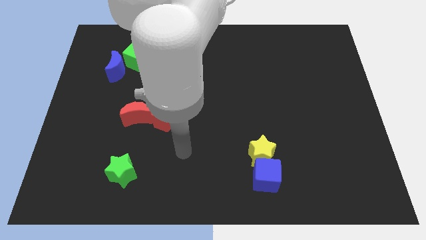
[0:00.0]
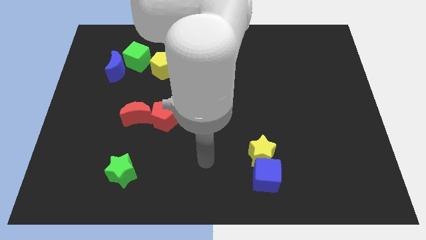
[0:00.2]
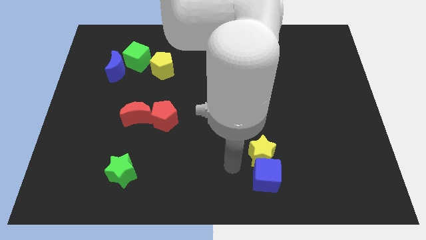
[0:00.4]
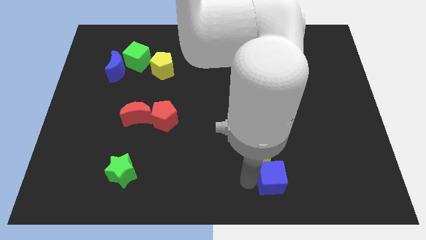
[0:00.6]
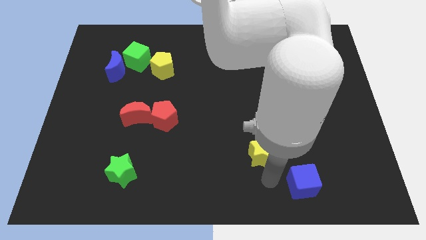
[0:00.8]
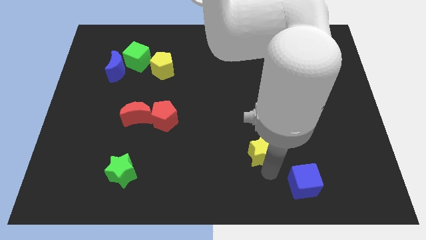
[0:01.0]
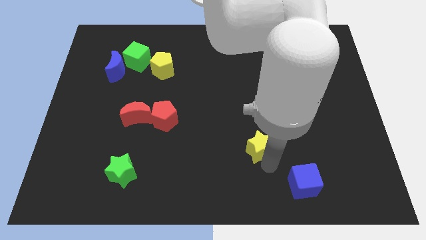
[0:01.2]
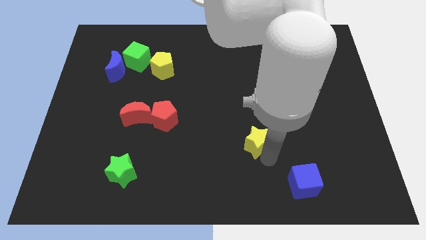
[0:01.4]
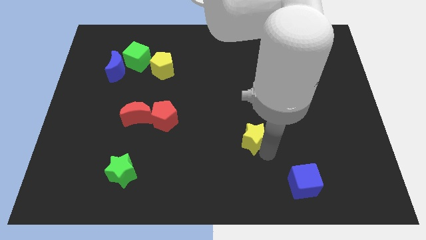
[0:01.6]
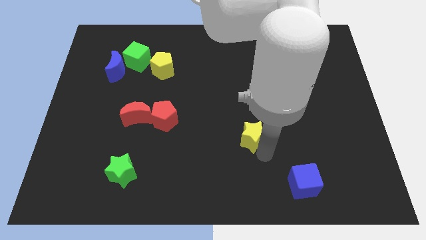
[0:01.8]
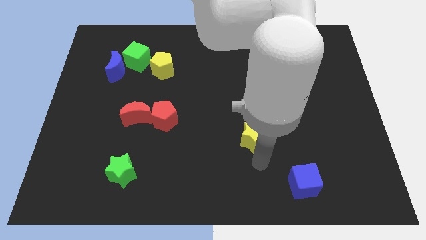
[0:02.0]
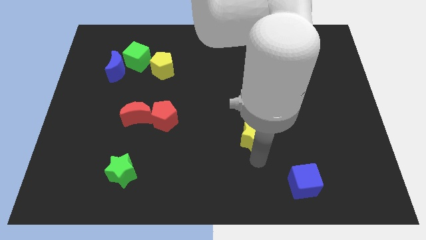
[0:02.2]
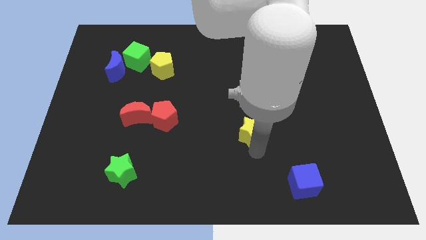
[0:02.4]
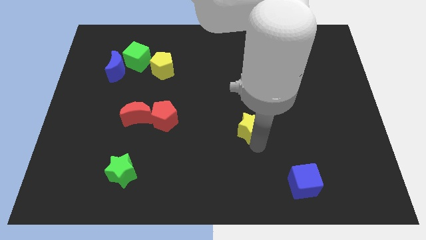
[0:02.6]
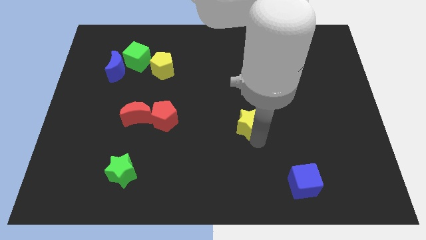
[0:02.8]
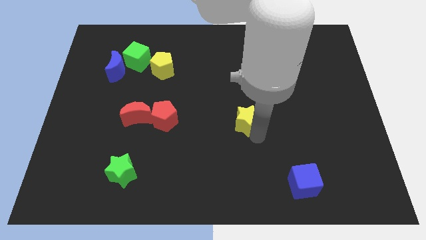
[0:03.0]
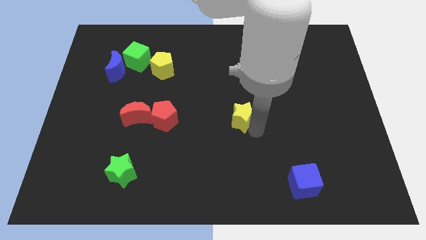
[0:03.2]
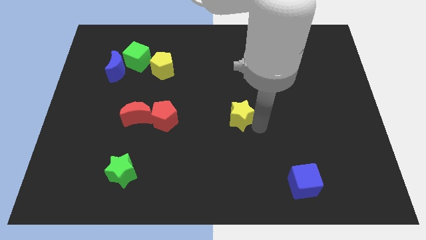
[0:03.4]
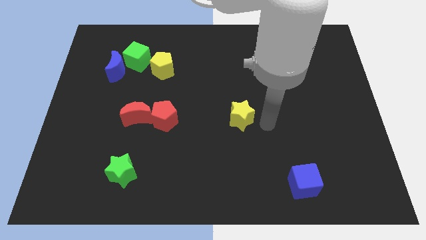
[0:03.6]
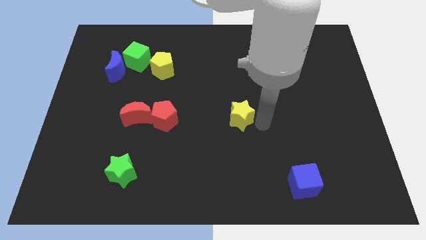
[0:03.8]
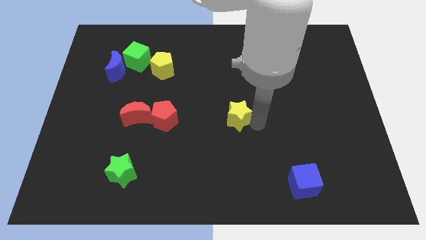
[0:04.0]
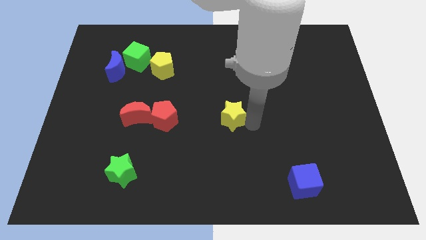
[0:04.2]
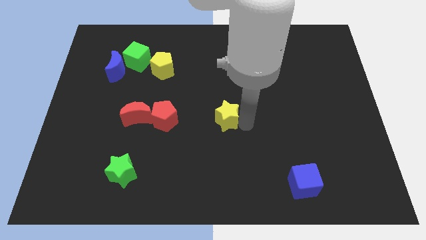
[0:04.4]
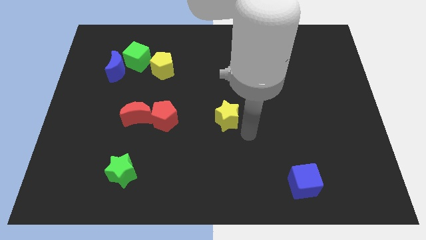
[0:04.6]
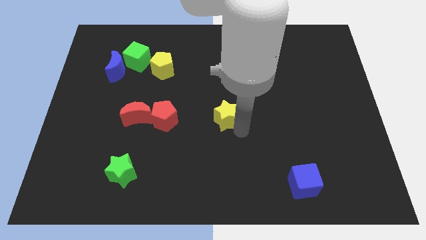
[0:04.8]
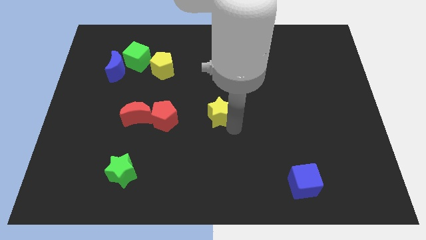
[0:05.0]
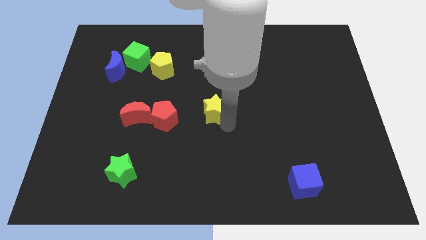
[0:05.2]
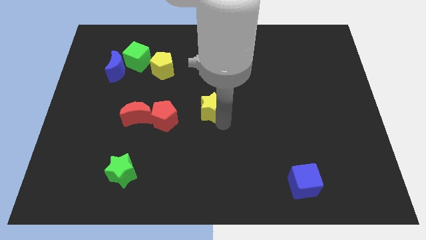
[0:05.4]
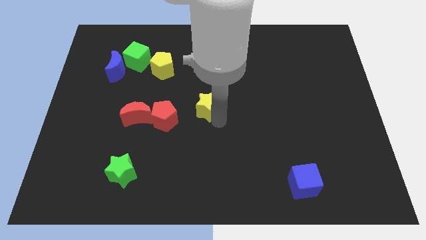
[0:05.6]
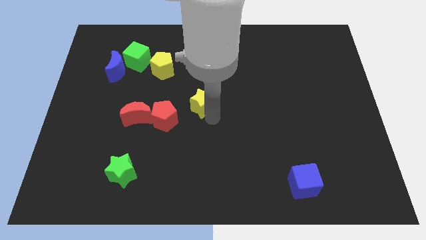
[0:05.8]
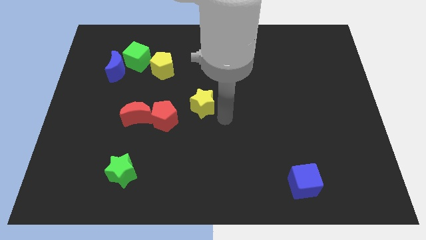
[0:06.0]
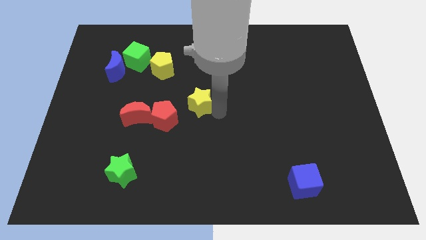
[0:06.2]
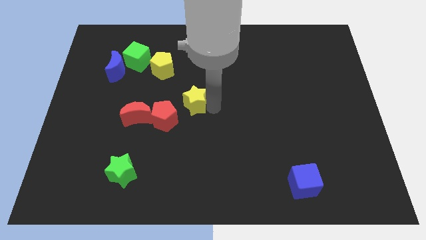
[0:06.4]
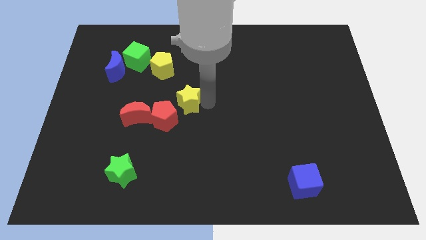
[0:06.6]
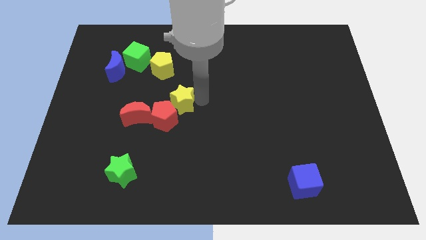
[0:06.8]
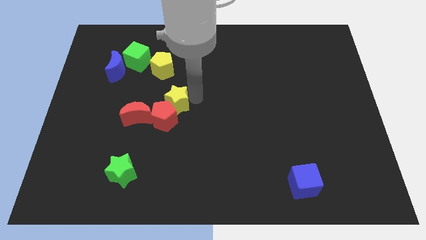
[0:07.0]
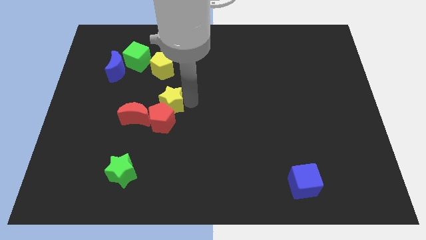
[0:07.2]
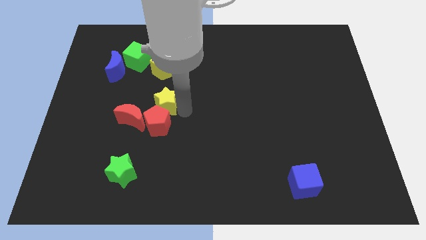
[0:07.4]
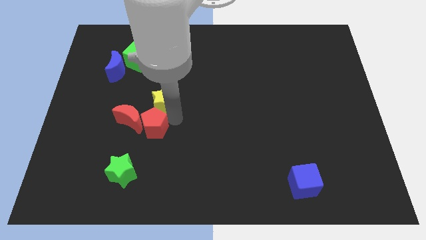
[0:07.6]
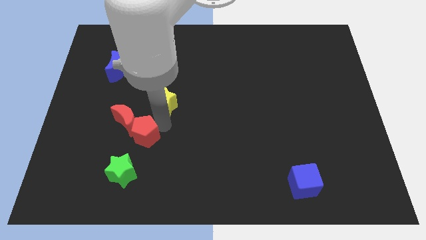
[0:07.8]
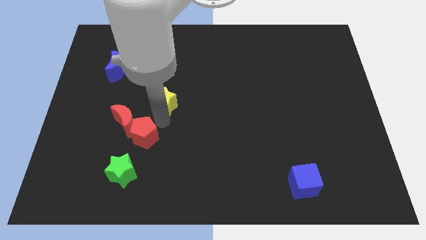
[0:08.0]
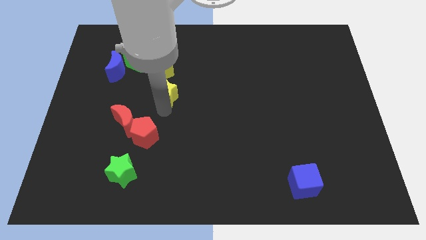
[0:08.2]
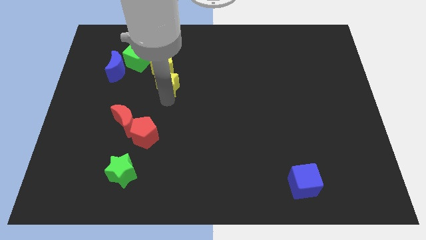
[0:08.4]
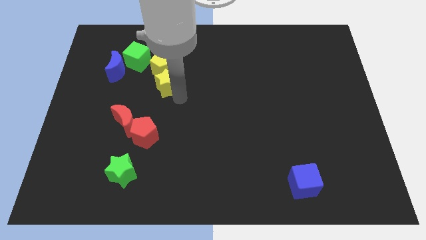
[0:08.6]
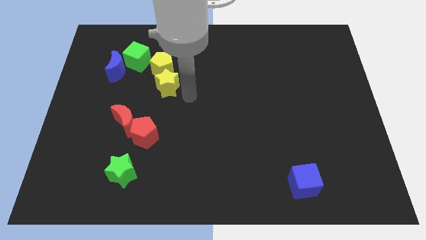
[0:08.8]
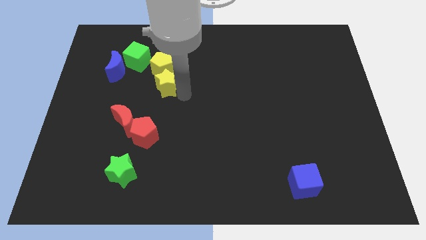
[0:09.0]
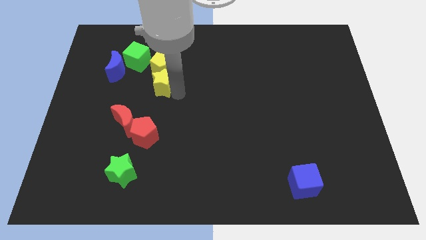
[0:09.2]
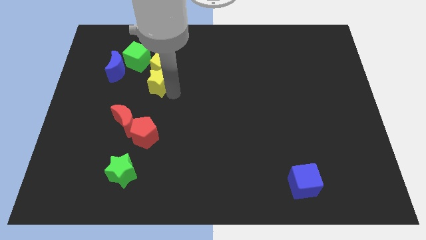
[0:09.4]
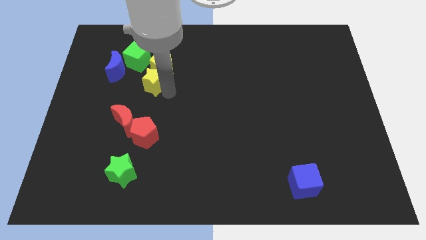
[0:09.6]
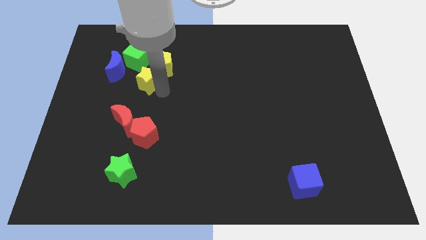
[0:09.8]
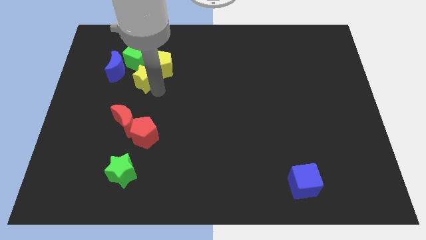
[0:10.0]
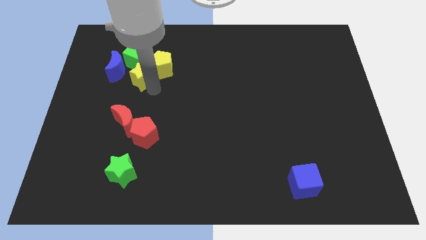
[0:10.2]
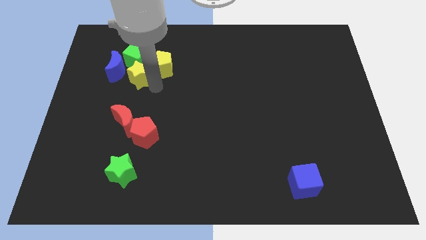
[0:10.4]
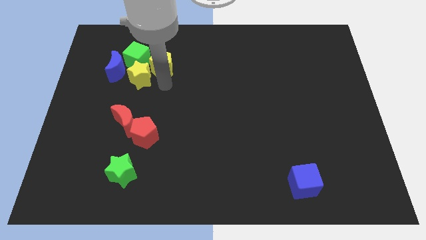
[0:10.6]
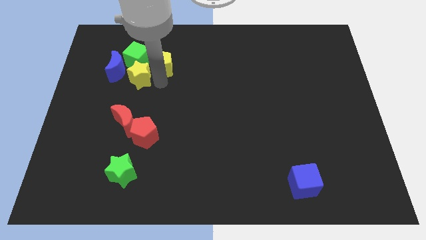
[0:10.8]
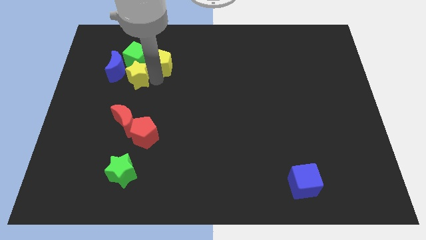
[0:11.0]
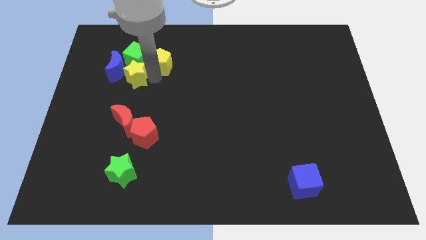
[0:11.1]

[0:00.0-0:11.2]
put the yellow star close to the blue moon

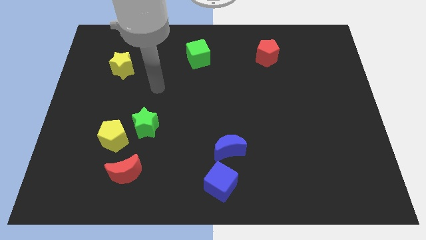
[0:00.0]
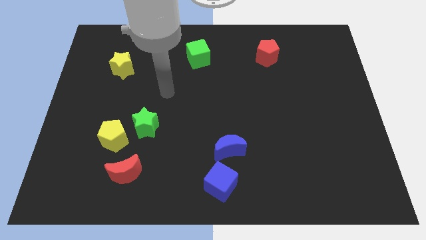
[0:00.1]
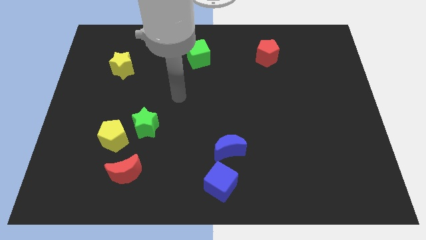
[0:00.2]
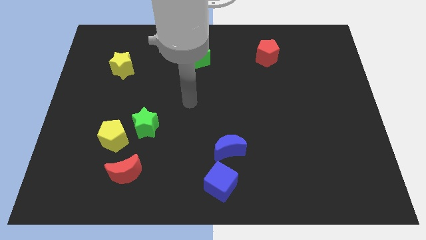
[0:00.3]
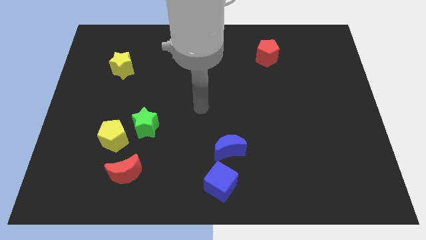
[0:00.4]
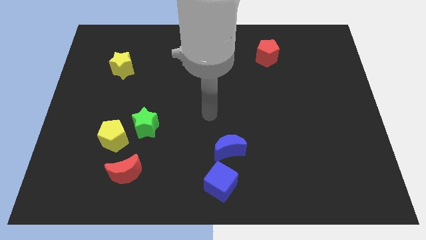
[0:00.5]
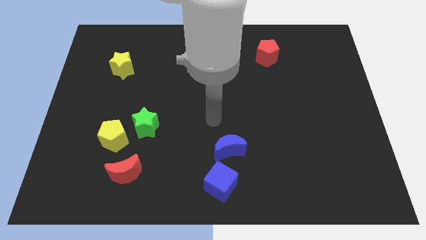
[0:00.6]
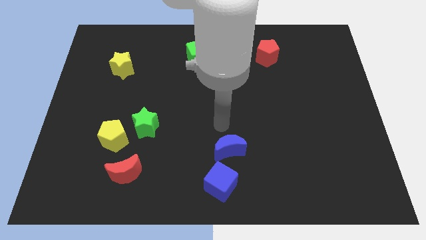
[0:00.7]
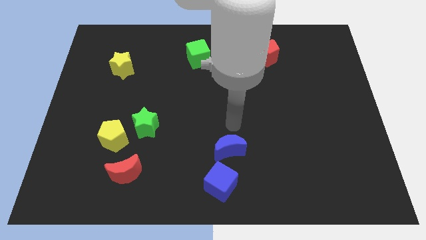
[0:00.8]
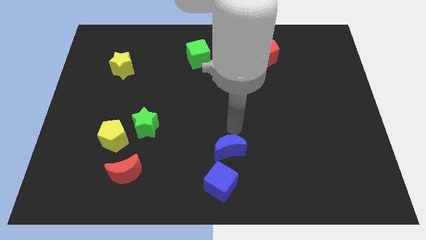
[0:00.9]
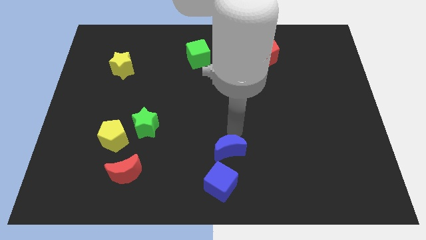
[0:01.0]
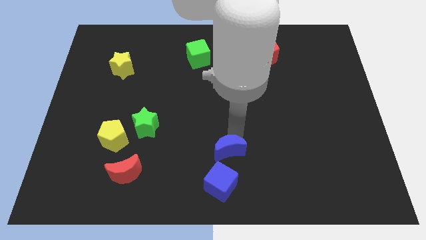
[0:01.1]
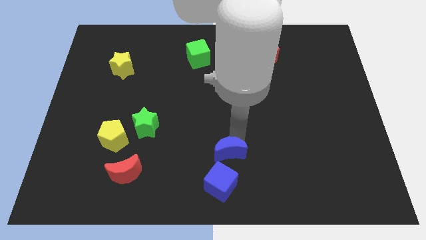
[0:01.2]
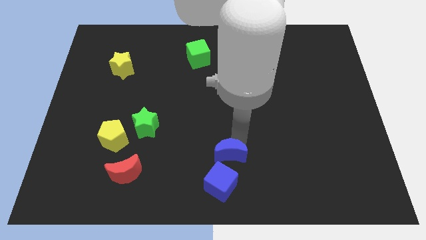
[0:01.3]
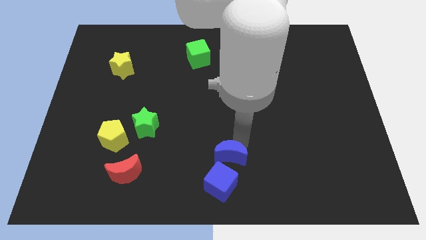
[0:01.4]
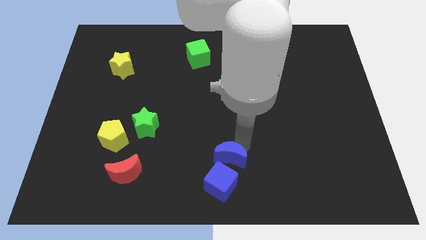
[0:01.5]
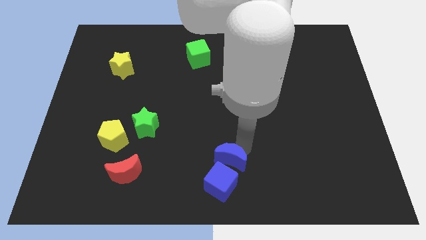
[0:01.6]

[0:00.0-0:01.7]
slide the blue moon to the blue cube

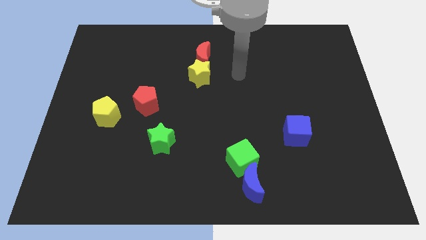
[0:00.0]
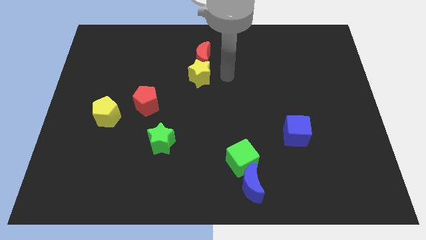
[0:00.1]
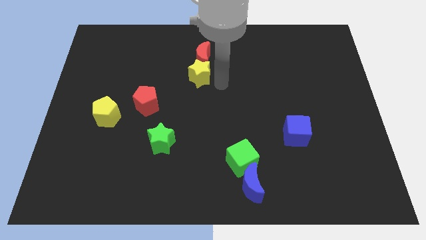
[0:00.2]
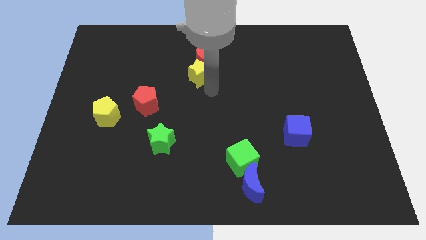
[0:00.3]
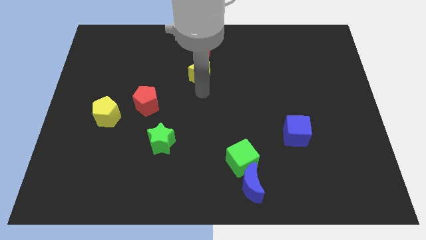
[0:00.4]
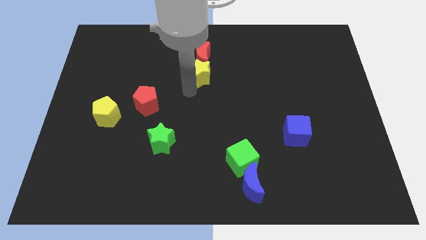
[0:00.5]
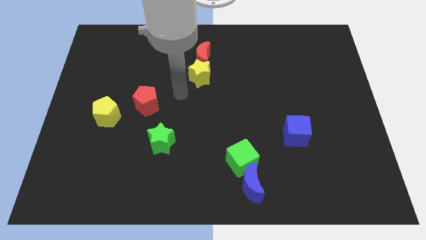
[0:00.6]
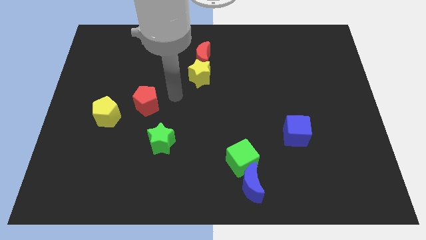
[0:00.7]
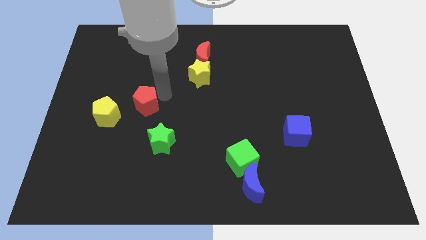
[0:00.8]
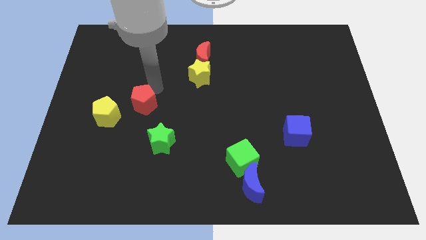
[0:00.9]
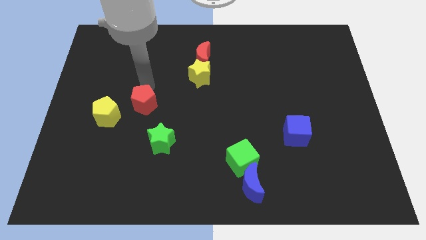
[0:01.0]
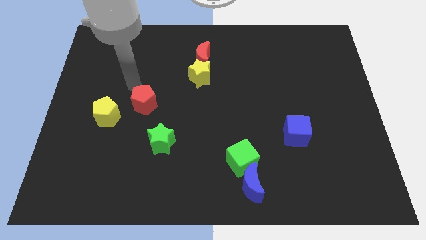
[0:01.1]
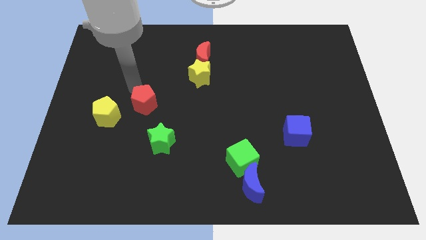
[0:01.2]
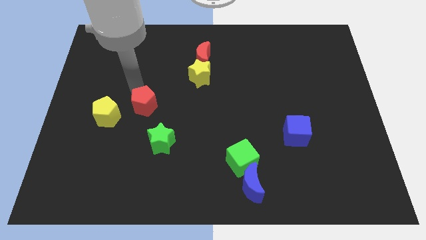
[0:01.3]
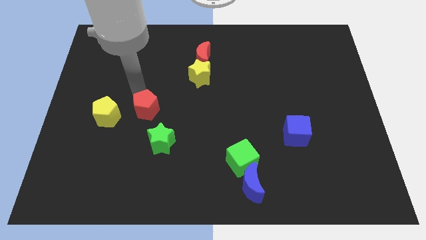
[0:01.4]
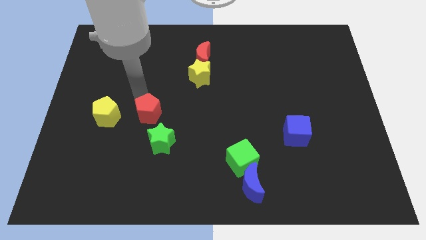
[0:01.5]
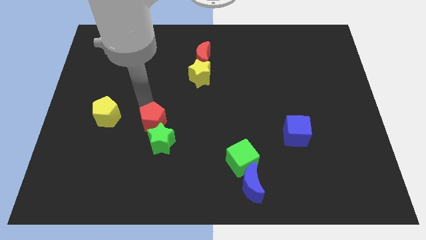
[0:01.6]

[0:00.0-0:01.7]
push the red pentagon towards the green star
